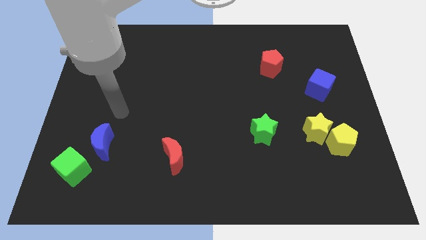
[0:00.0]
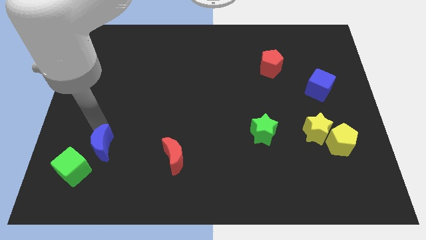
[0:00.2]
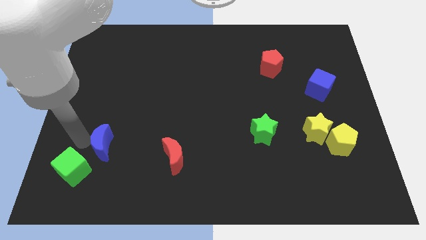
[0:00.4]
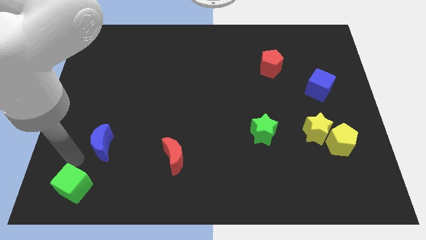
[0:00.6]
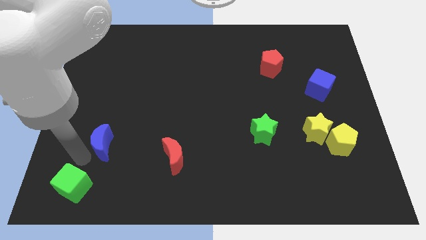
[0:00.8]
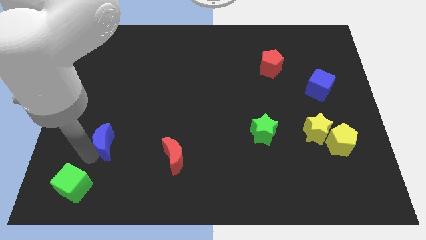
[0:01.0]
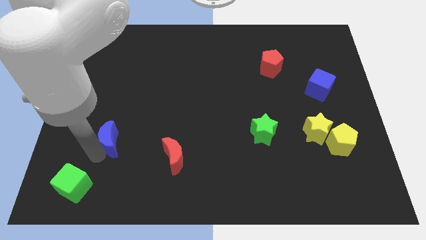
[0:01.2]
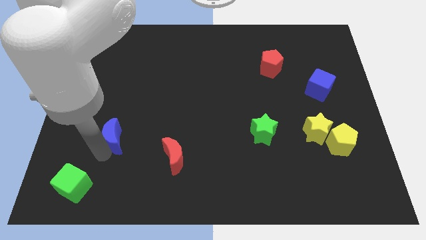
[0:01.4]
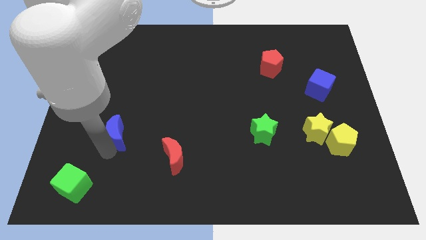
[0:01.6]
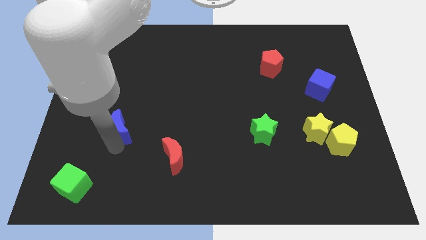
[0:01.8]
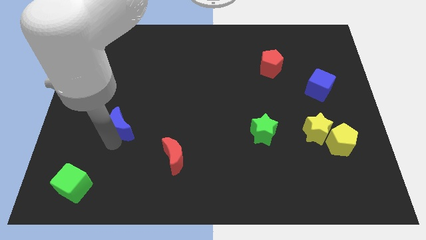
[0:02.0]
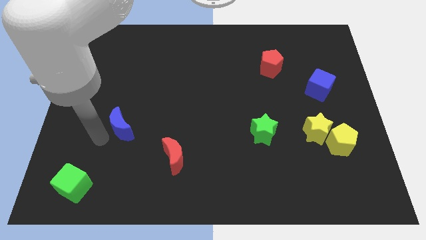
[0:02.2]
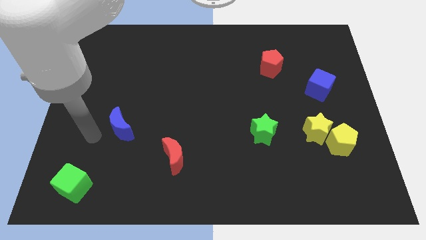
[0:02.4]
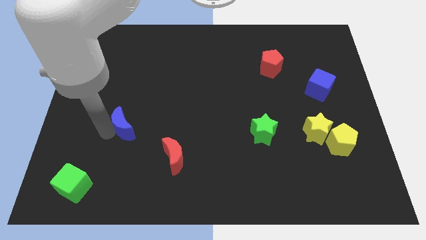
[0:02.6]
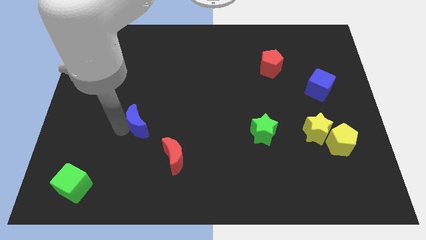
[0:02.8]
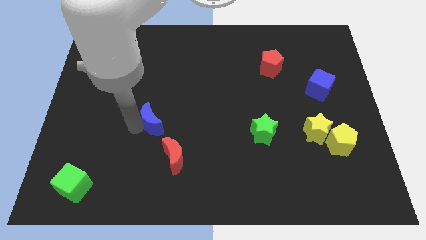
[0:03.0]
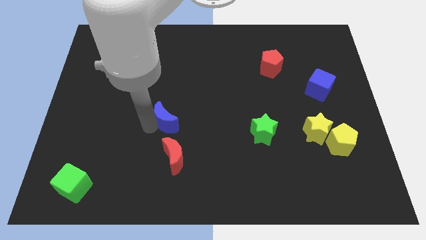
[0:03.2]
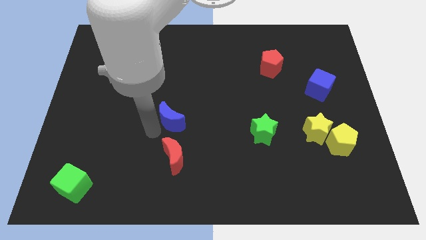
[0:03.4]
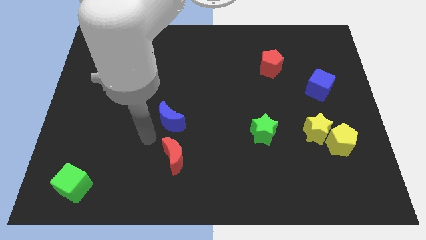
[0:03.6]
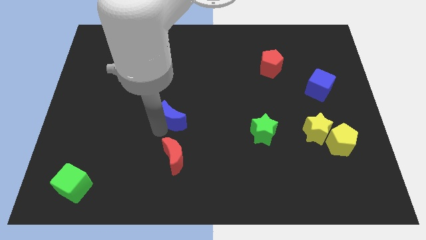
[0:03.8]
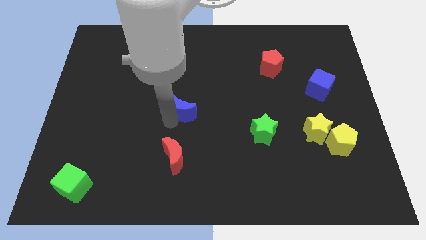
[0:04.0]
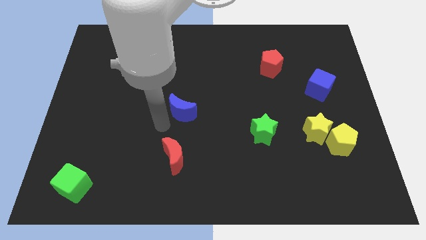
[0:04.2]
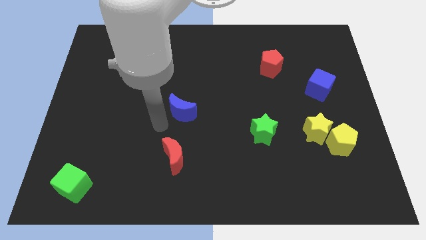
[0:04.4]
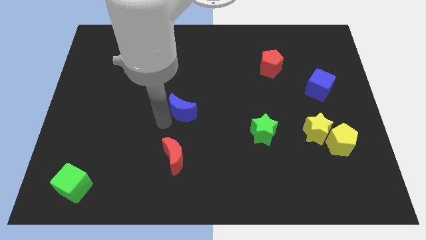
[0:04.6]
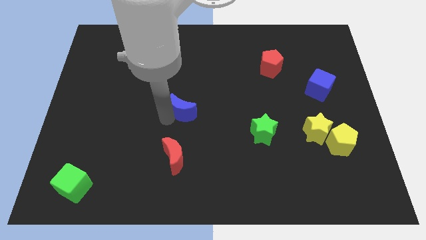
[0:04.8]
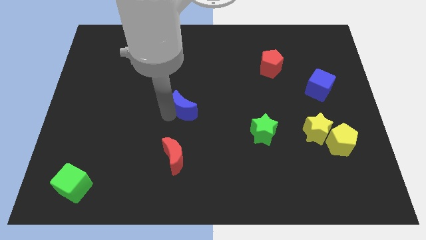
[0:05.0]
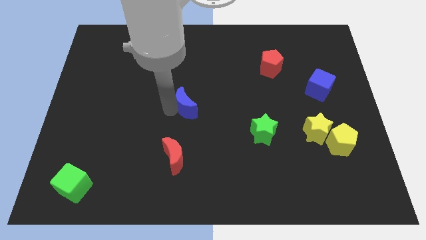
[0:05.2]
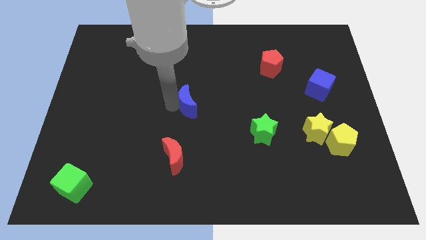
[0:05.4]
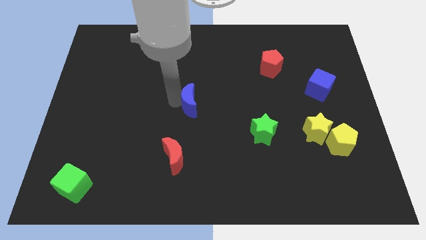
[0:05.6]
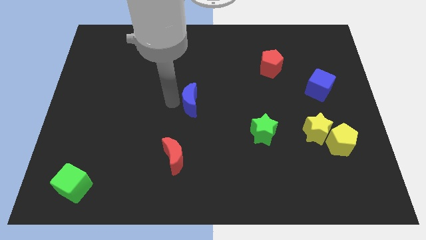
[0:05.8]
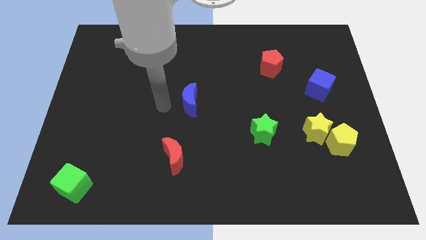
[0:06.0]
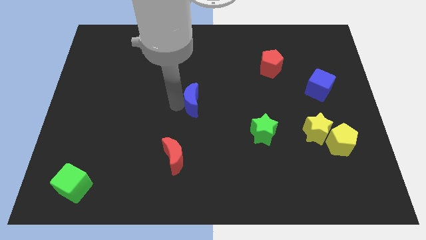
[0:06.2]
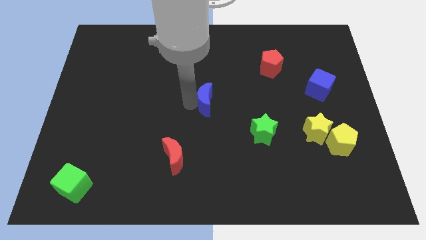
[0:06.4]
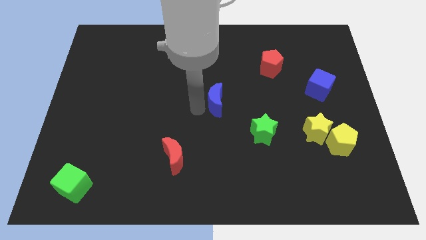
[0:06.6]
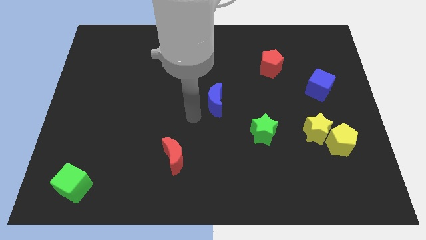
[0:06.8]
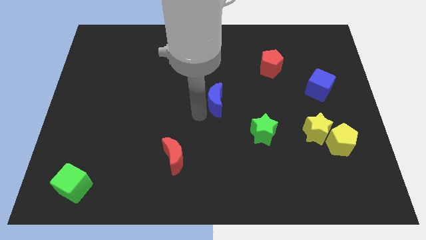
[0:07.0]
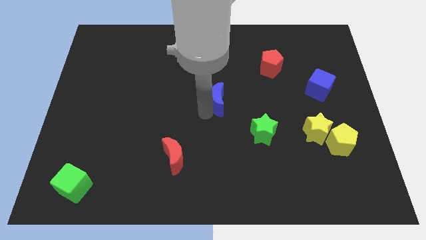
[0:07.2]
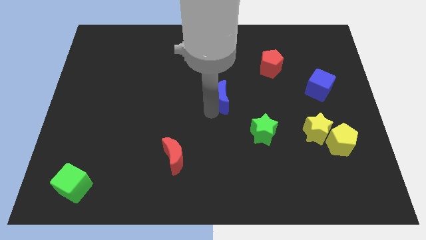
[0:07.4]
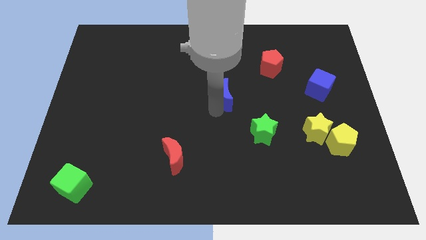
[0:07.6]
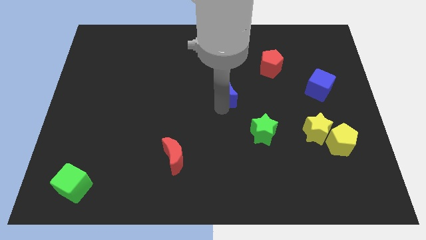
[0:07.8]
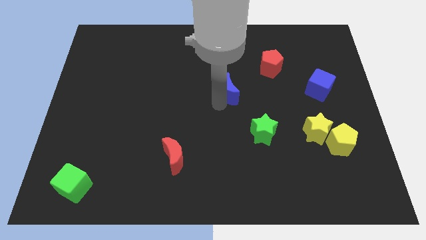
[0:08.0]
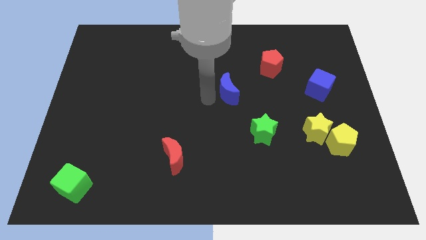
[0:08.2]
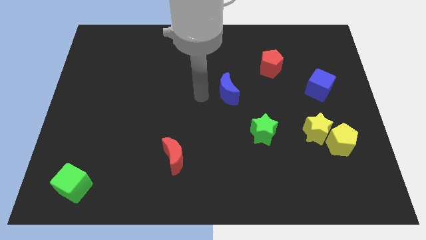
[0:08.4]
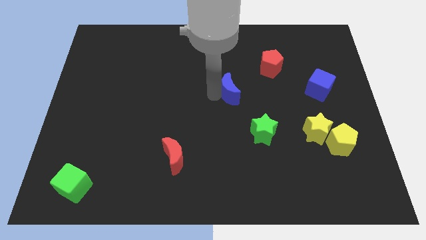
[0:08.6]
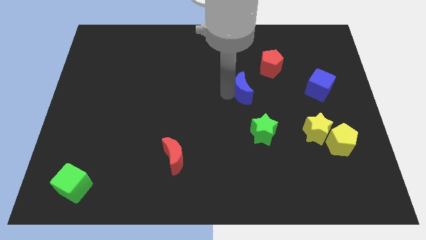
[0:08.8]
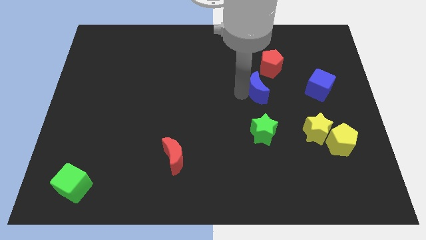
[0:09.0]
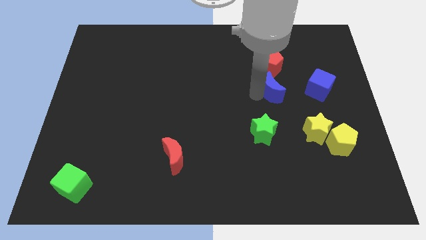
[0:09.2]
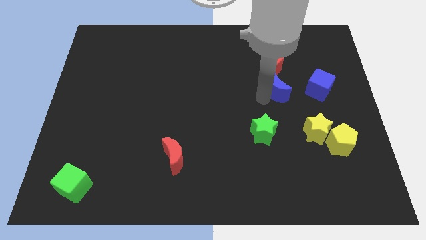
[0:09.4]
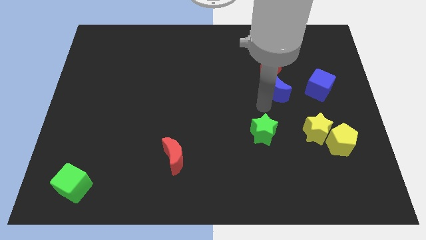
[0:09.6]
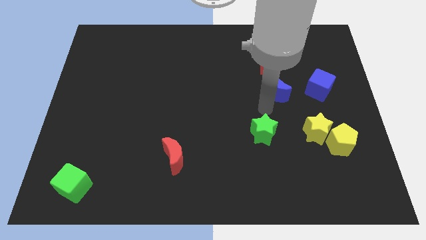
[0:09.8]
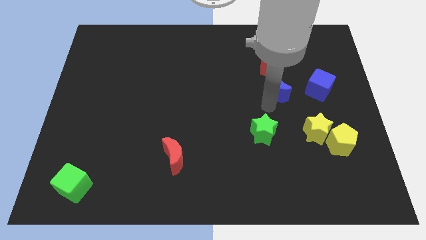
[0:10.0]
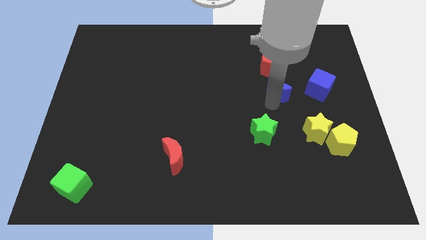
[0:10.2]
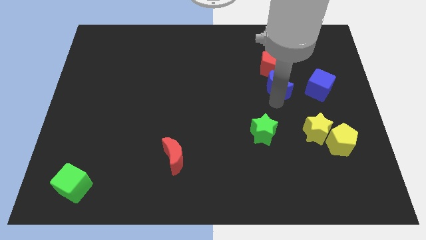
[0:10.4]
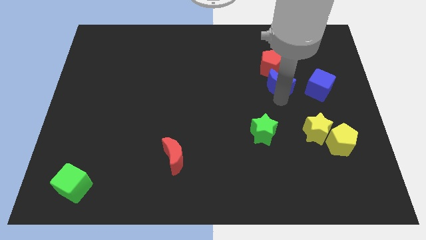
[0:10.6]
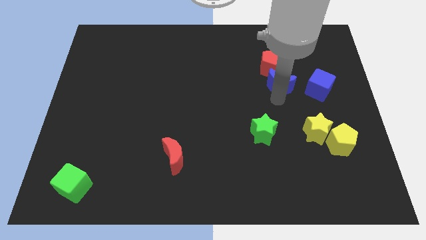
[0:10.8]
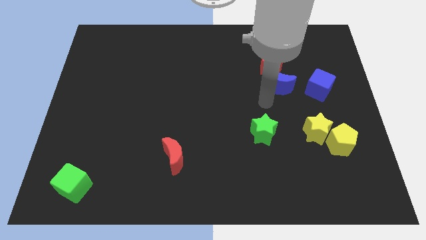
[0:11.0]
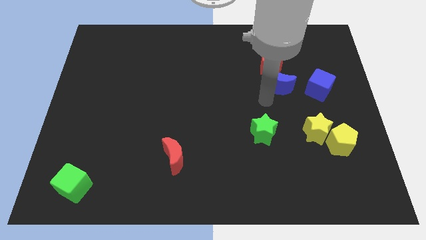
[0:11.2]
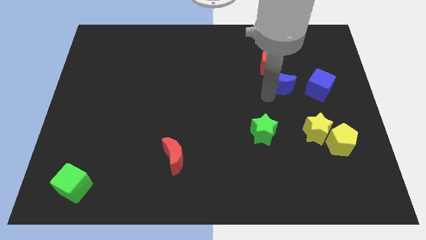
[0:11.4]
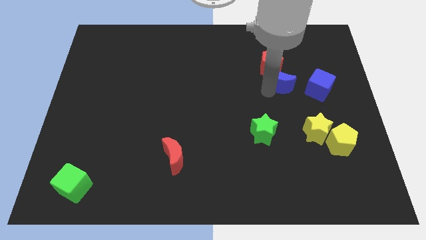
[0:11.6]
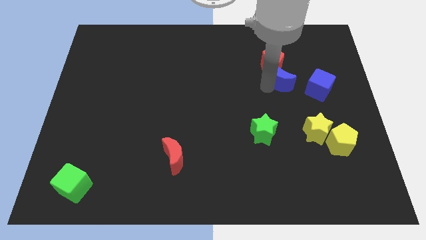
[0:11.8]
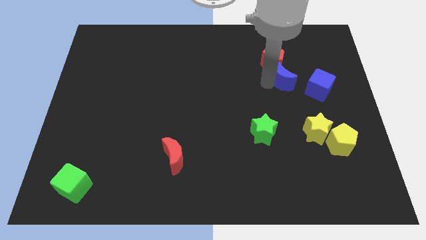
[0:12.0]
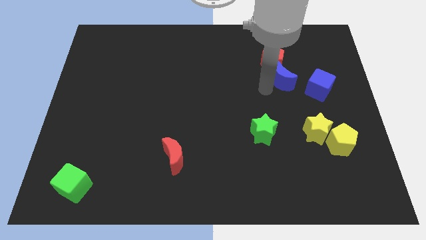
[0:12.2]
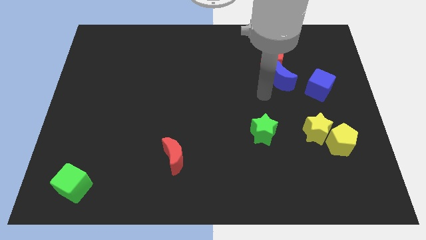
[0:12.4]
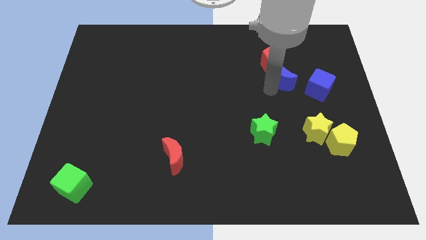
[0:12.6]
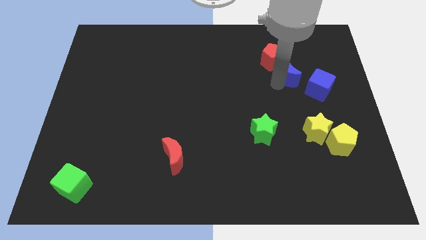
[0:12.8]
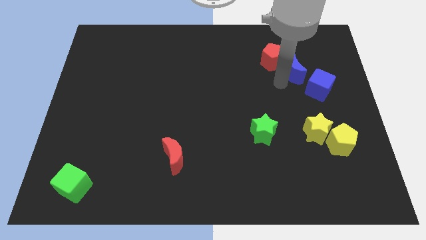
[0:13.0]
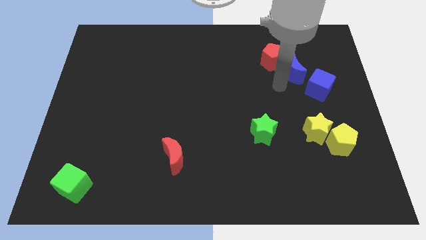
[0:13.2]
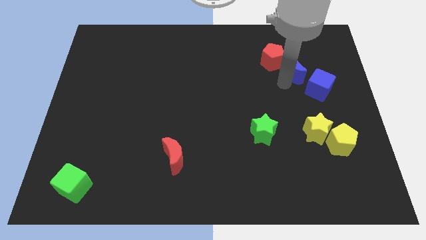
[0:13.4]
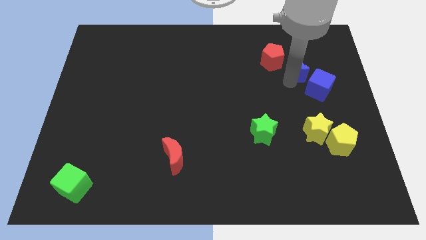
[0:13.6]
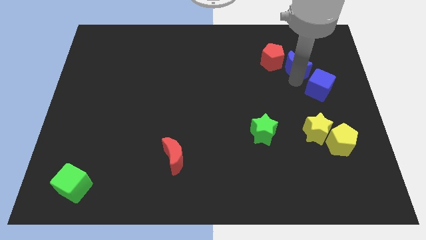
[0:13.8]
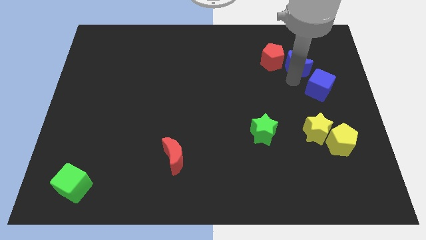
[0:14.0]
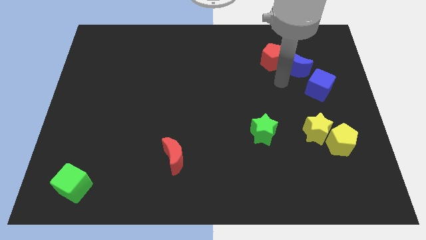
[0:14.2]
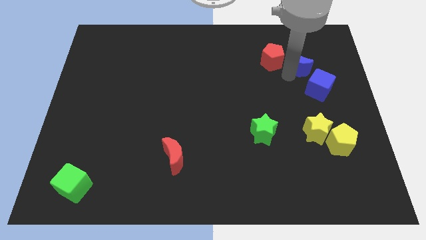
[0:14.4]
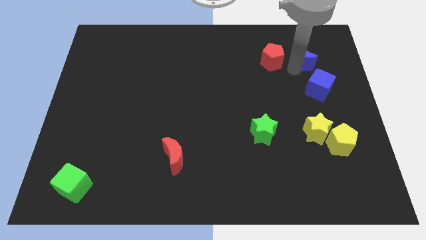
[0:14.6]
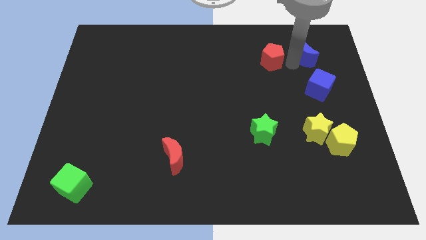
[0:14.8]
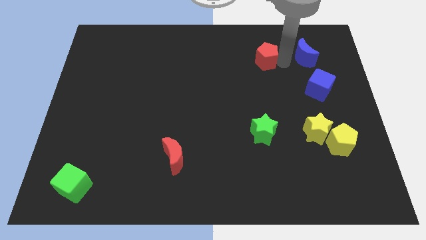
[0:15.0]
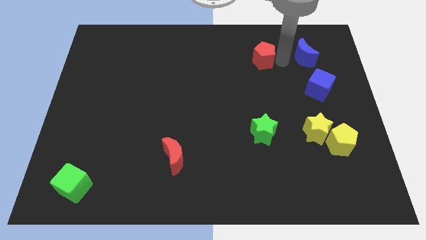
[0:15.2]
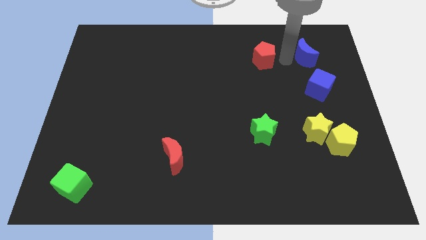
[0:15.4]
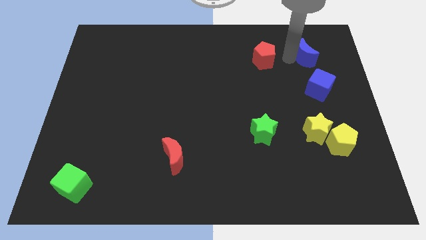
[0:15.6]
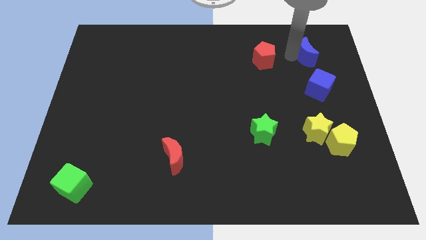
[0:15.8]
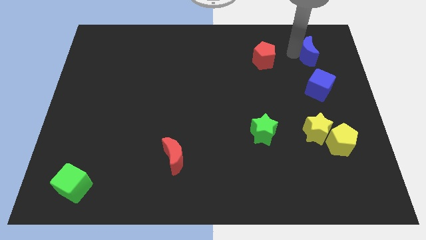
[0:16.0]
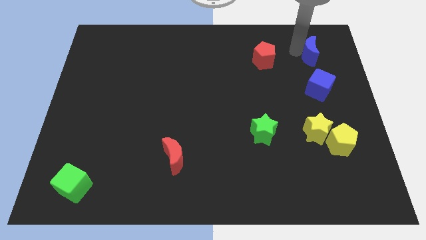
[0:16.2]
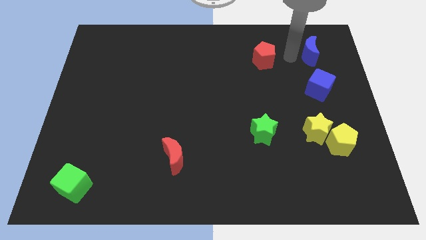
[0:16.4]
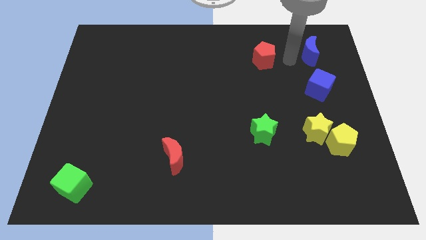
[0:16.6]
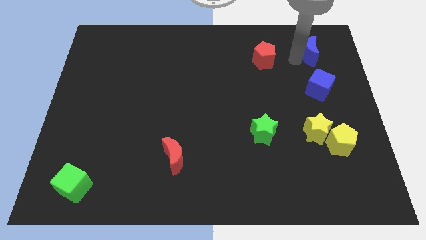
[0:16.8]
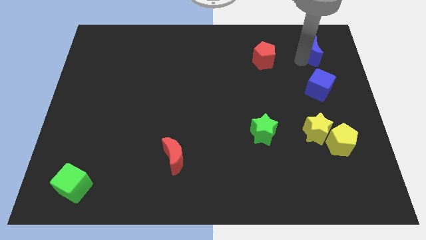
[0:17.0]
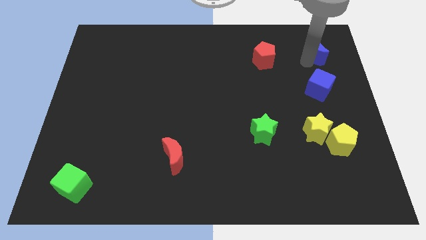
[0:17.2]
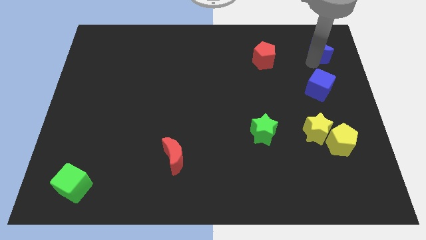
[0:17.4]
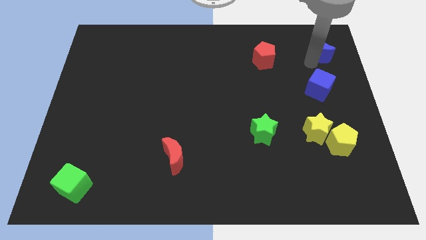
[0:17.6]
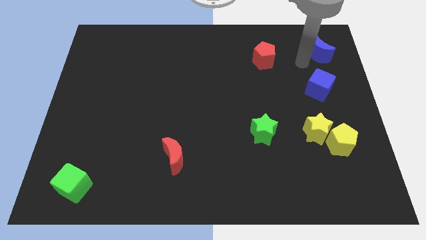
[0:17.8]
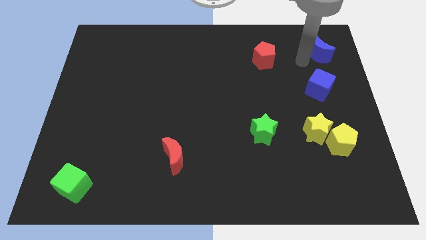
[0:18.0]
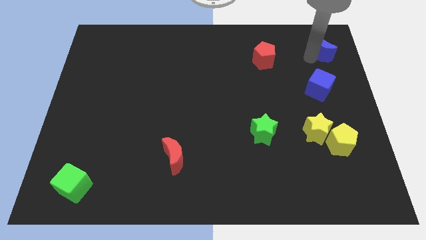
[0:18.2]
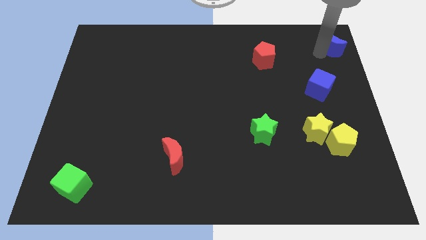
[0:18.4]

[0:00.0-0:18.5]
put the blue moon to the top right of the board
